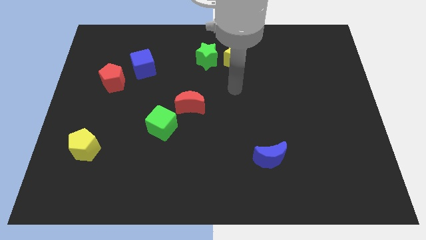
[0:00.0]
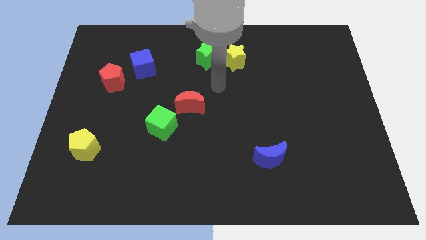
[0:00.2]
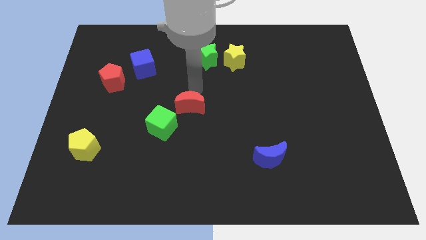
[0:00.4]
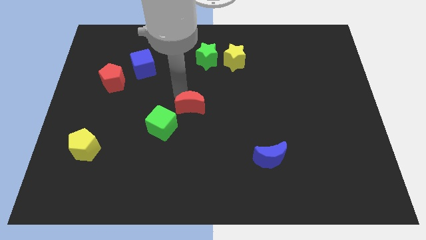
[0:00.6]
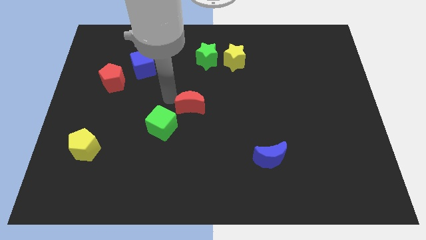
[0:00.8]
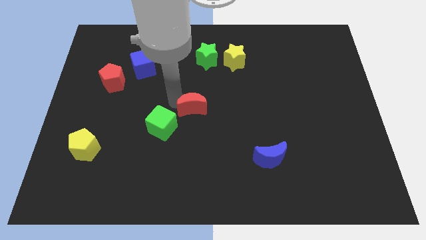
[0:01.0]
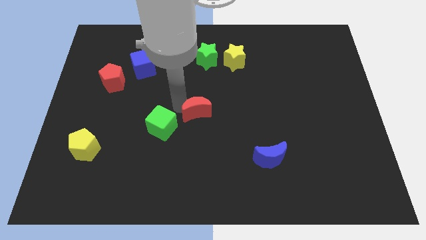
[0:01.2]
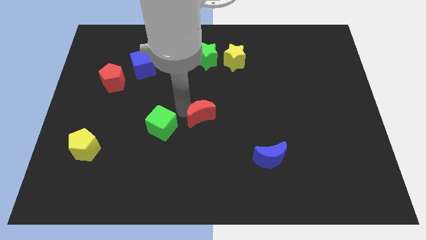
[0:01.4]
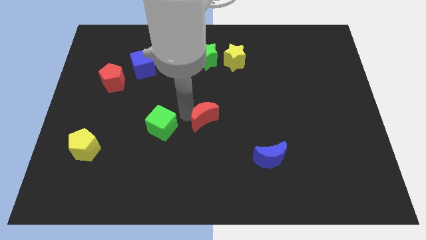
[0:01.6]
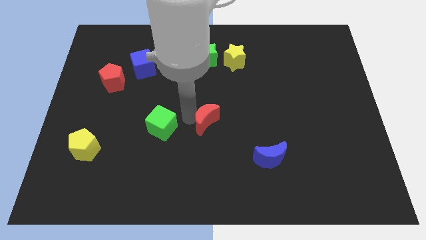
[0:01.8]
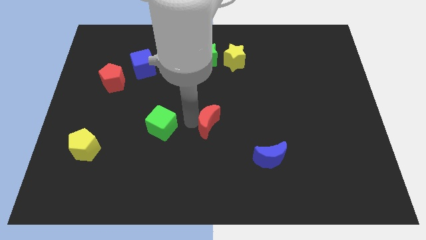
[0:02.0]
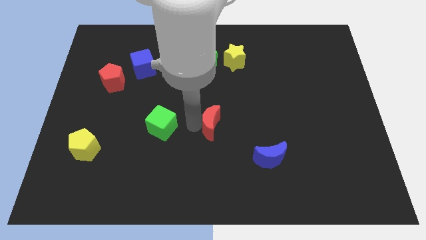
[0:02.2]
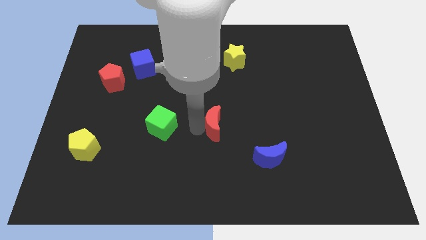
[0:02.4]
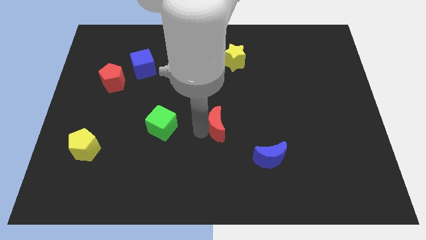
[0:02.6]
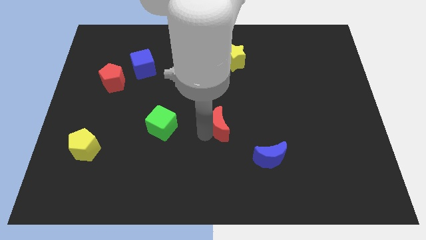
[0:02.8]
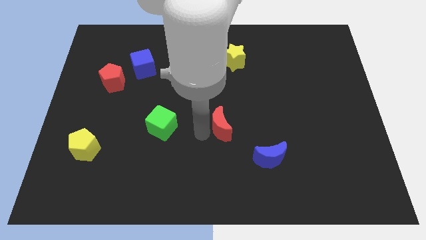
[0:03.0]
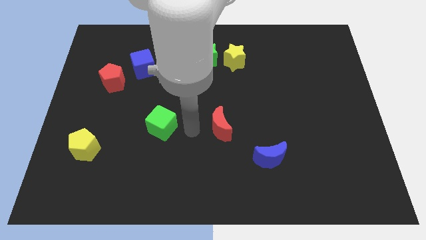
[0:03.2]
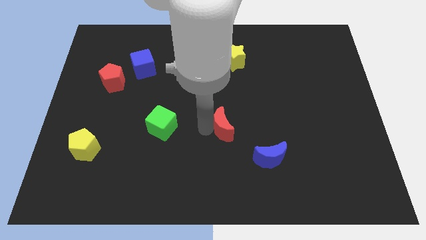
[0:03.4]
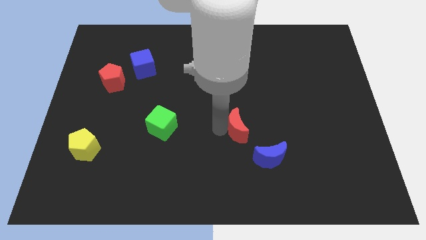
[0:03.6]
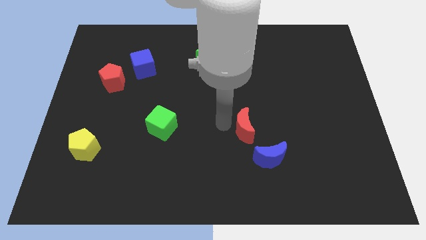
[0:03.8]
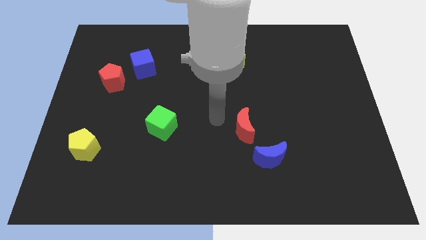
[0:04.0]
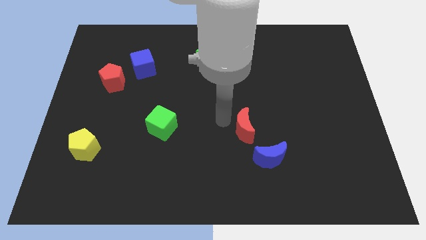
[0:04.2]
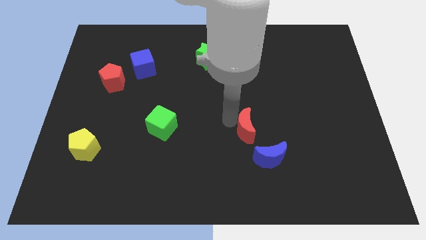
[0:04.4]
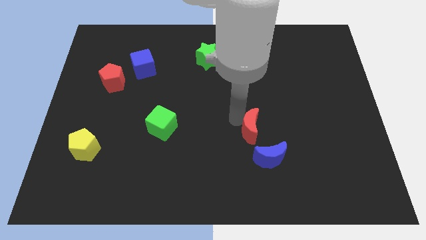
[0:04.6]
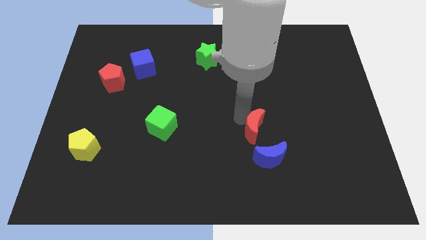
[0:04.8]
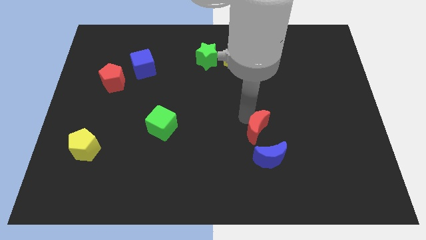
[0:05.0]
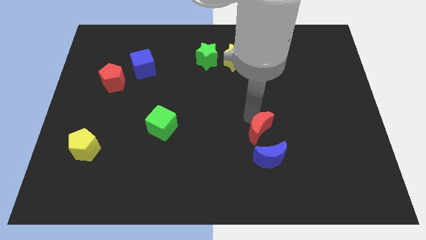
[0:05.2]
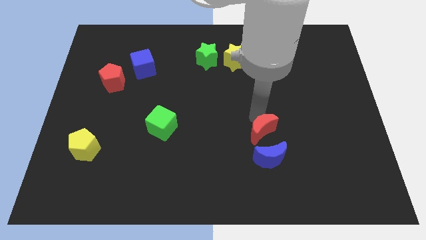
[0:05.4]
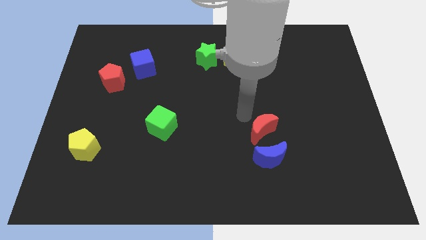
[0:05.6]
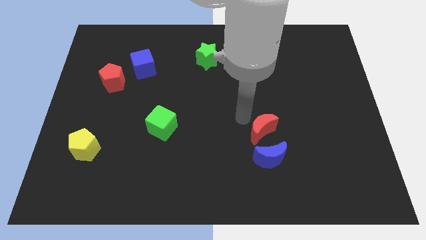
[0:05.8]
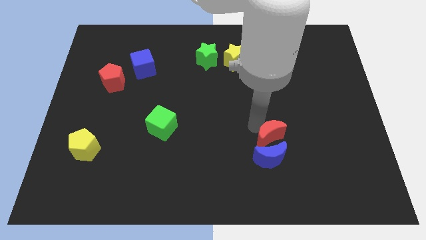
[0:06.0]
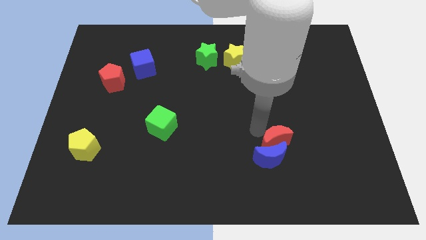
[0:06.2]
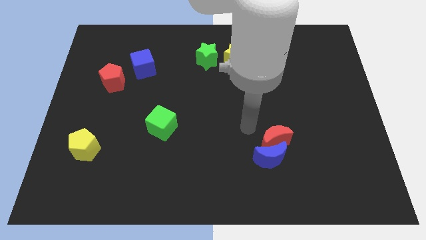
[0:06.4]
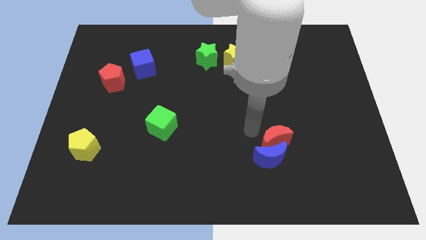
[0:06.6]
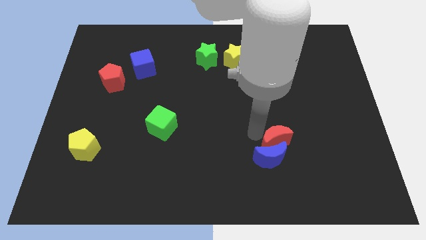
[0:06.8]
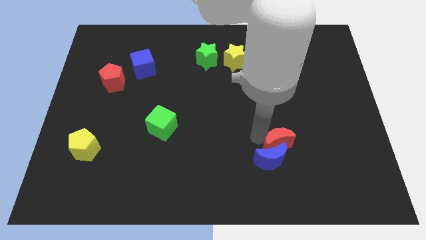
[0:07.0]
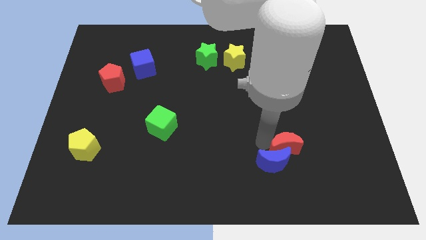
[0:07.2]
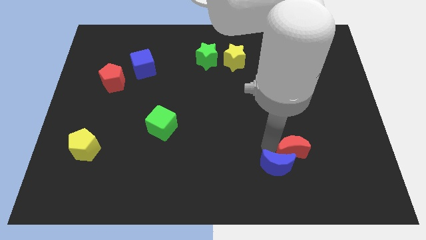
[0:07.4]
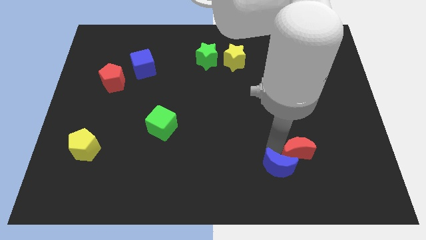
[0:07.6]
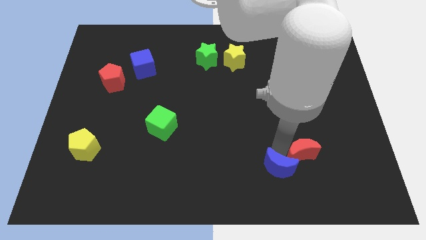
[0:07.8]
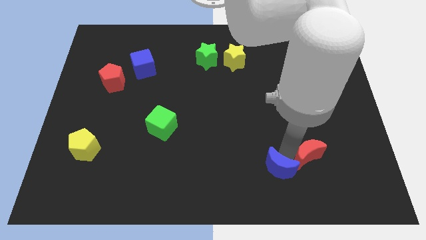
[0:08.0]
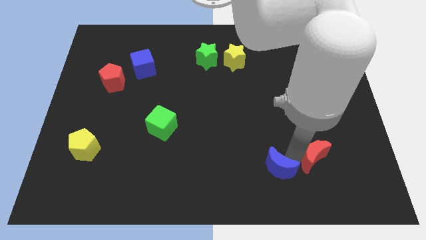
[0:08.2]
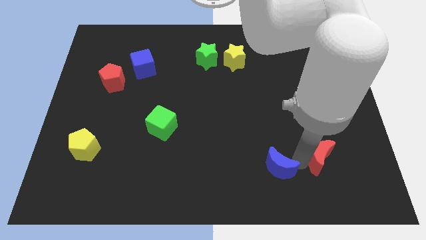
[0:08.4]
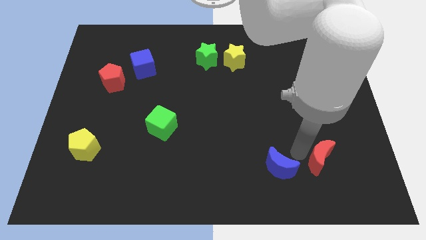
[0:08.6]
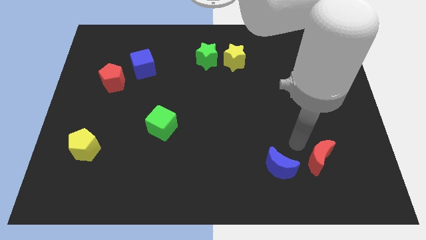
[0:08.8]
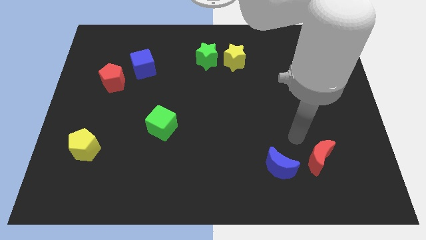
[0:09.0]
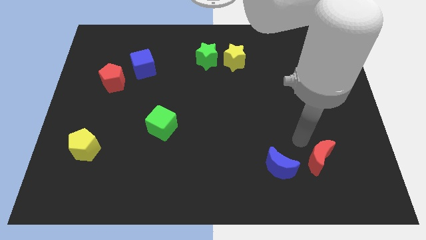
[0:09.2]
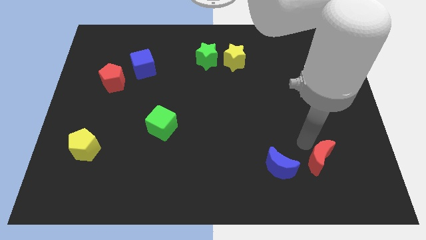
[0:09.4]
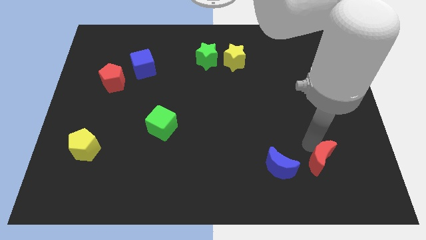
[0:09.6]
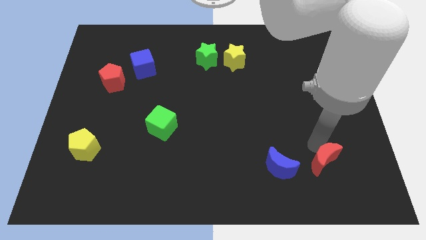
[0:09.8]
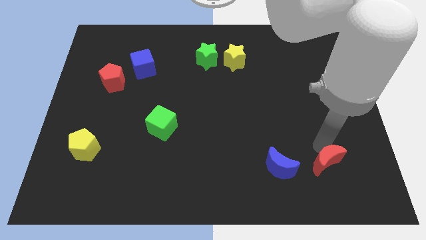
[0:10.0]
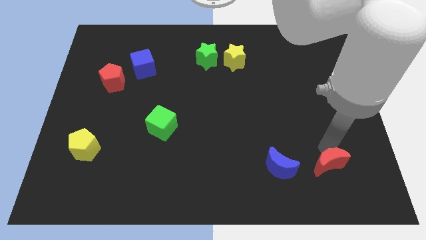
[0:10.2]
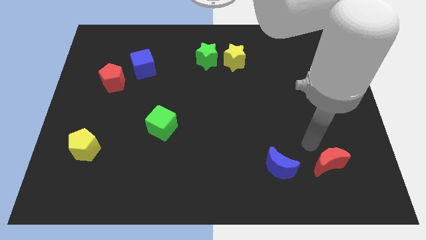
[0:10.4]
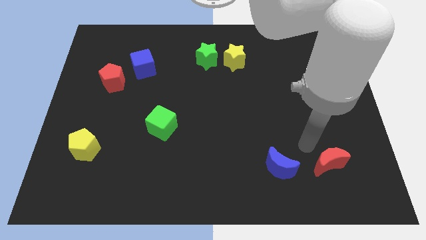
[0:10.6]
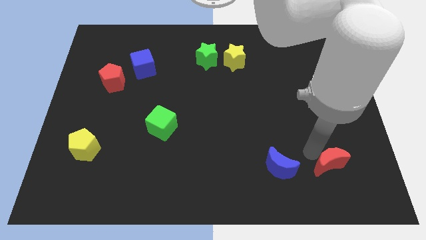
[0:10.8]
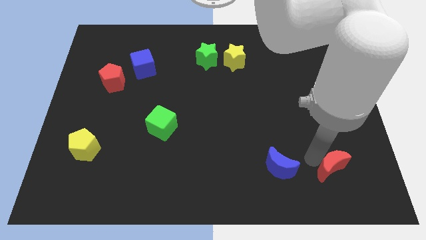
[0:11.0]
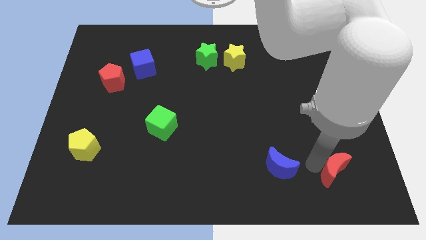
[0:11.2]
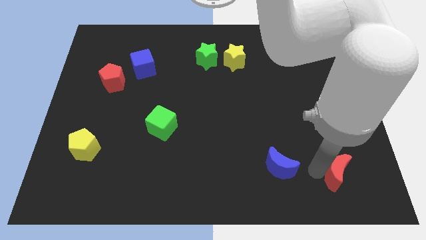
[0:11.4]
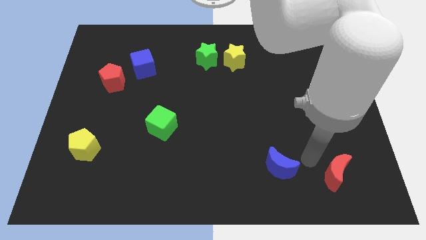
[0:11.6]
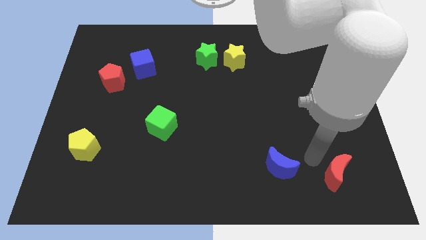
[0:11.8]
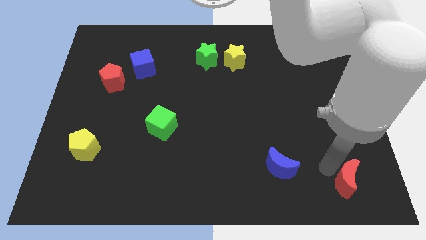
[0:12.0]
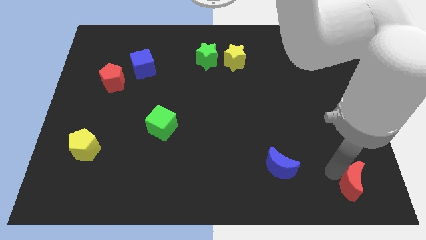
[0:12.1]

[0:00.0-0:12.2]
move the red moon to the bottom right of the board

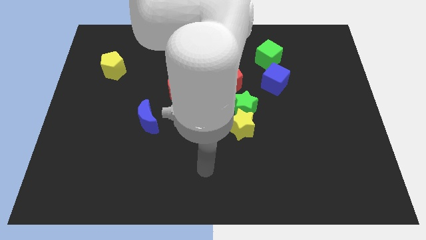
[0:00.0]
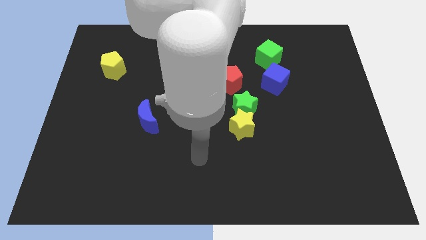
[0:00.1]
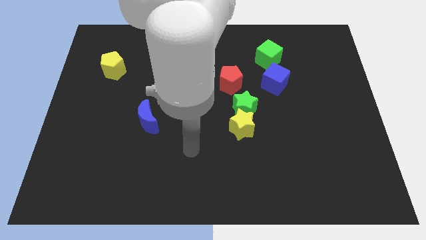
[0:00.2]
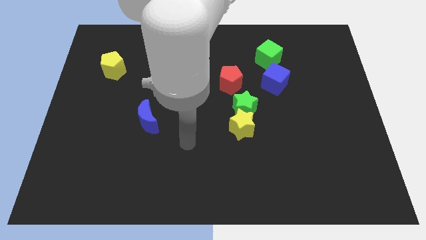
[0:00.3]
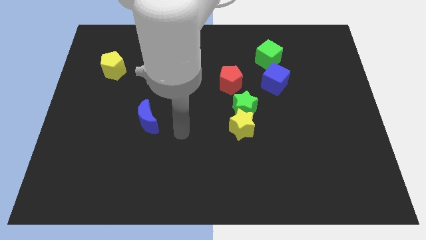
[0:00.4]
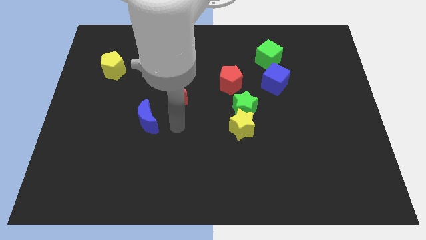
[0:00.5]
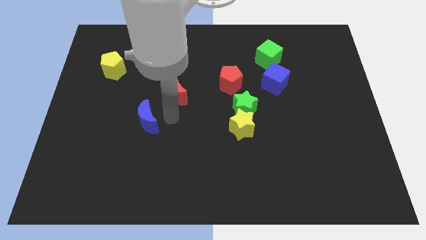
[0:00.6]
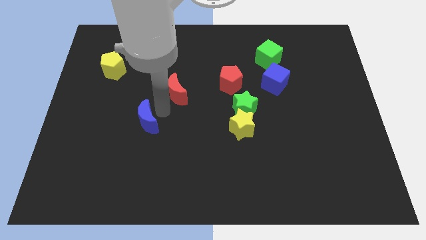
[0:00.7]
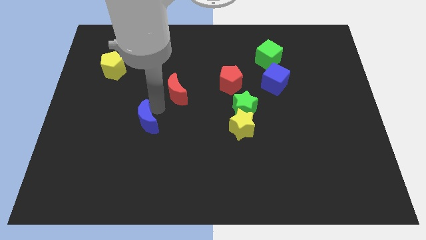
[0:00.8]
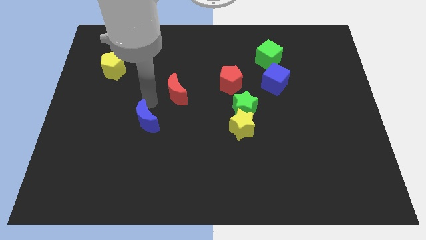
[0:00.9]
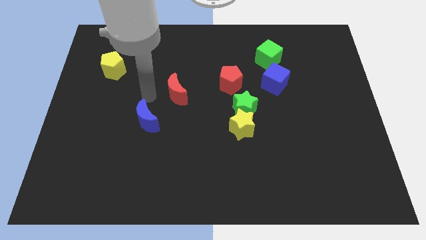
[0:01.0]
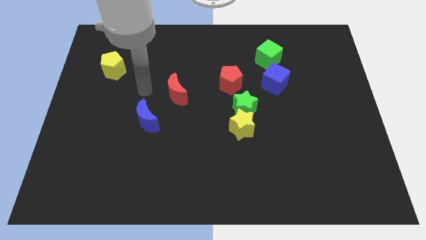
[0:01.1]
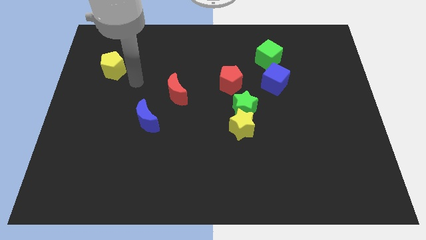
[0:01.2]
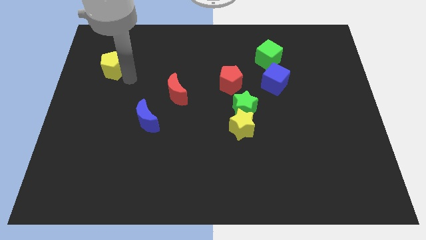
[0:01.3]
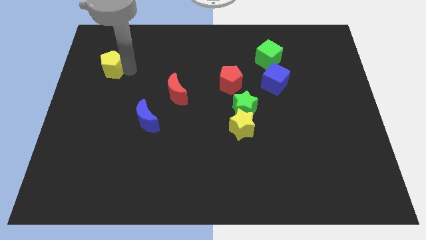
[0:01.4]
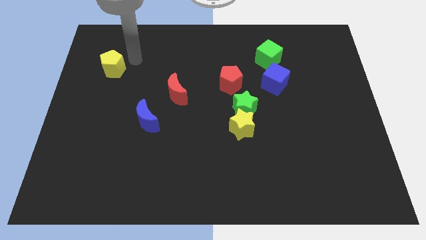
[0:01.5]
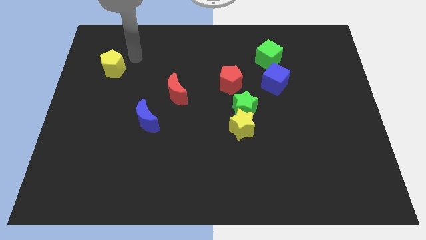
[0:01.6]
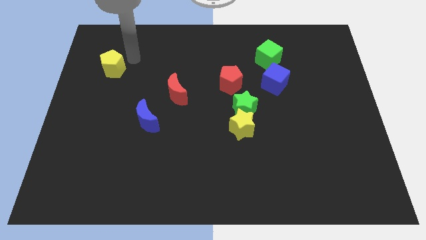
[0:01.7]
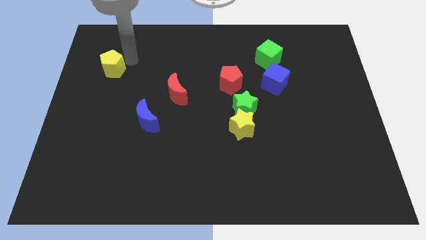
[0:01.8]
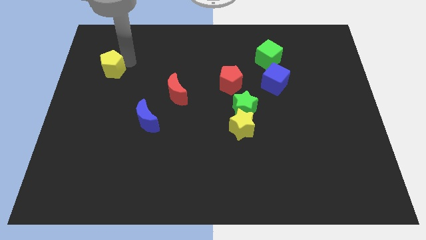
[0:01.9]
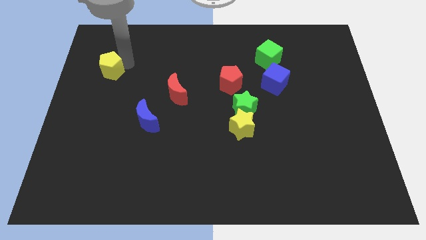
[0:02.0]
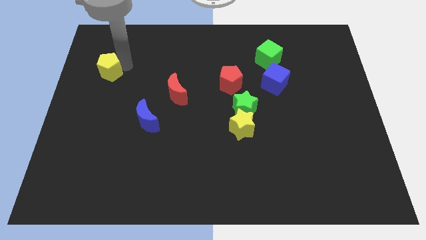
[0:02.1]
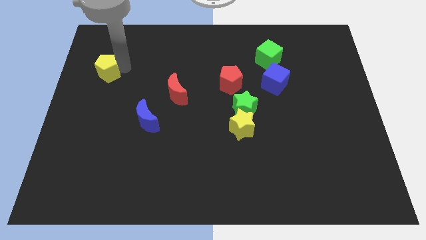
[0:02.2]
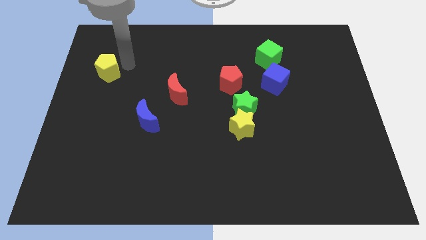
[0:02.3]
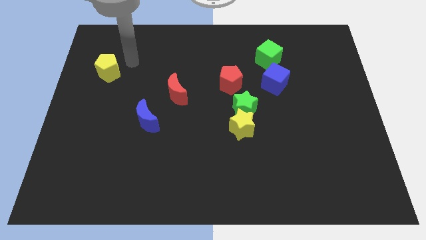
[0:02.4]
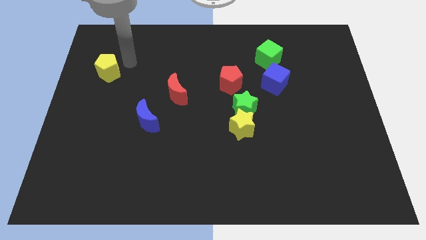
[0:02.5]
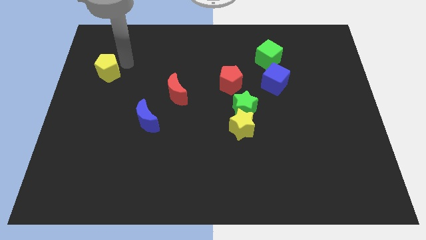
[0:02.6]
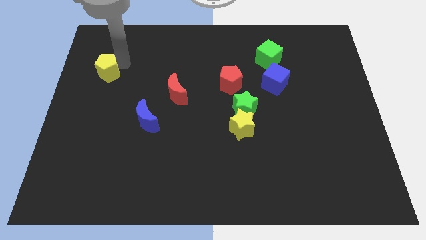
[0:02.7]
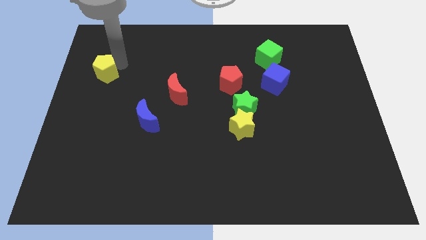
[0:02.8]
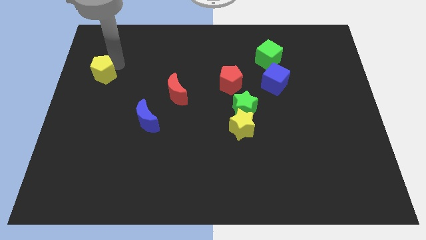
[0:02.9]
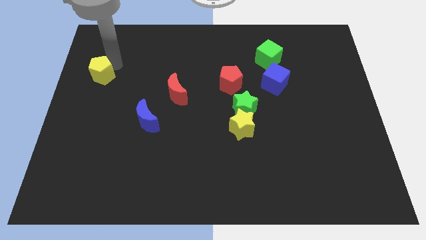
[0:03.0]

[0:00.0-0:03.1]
put the yellow pentagon to the center left
